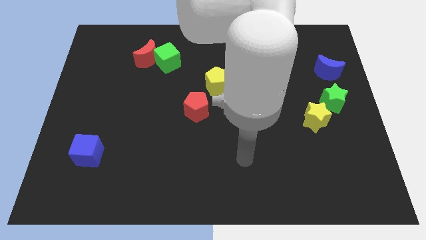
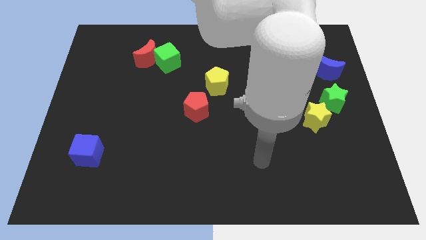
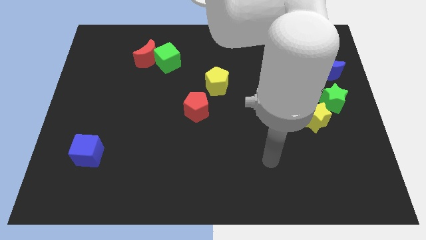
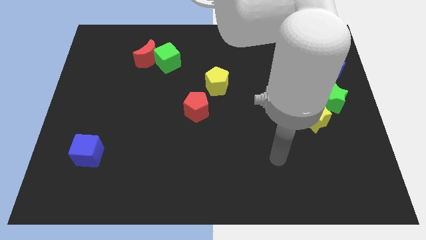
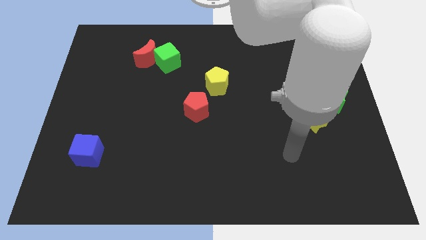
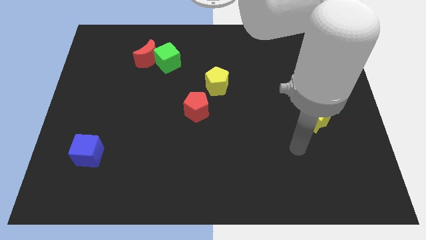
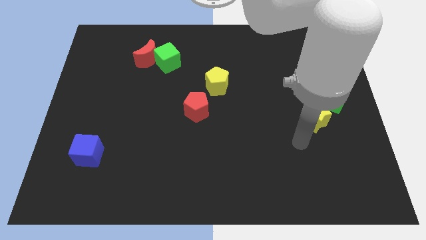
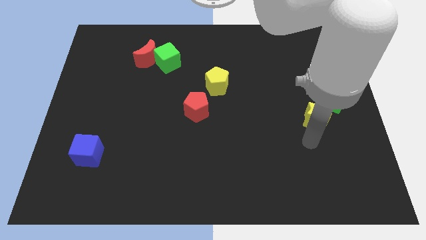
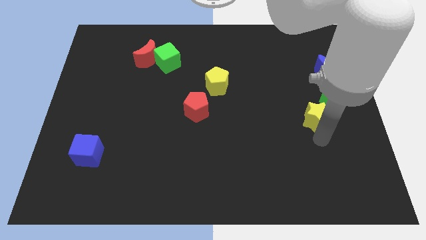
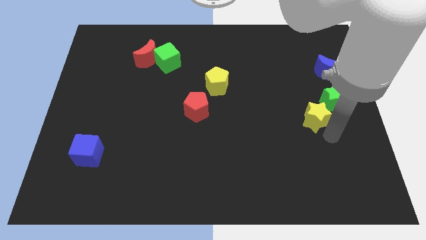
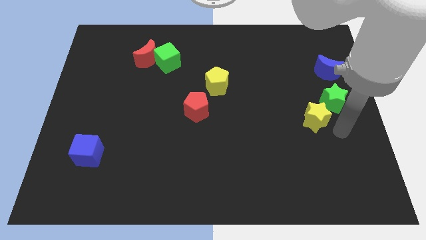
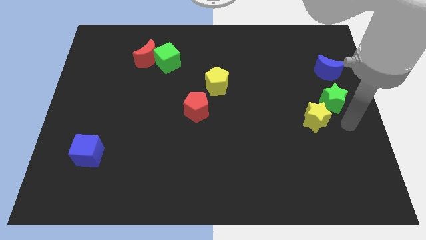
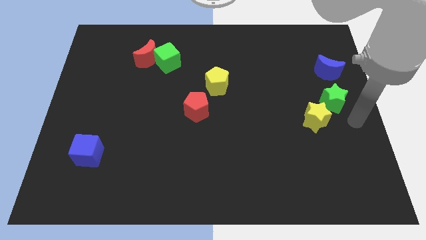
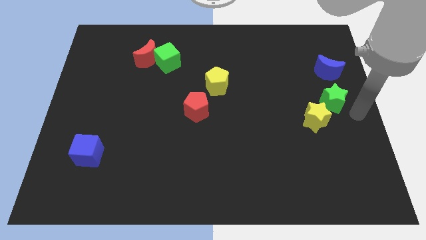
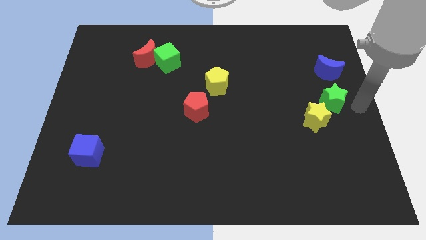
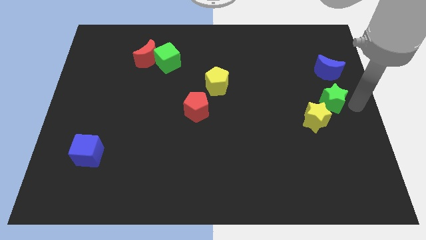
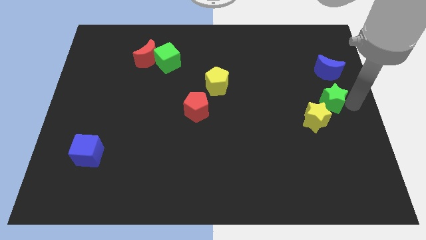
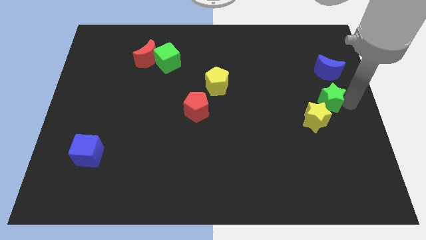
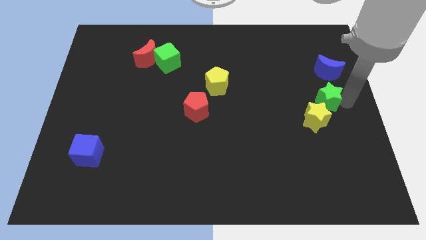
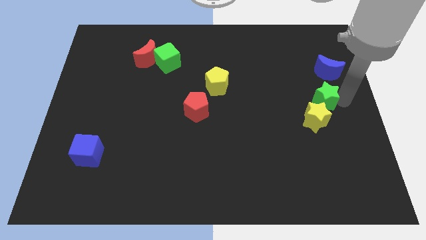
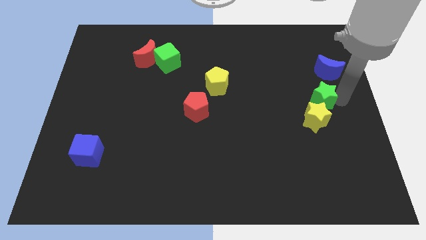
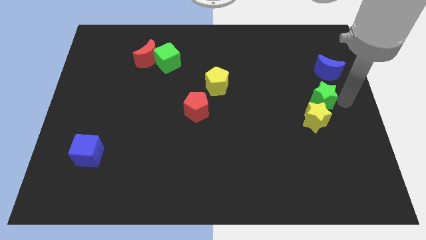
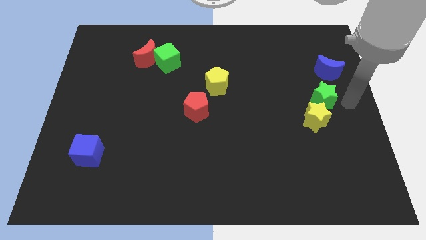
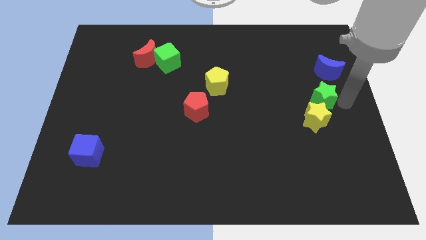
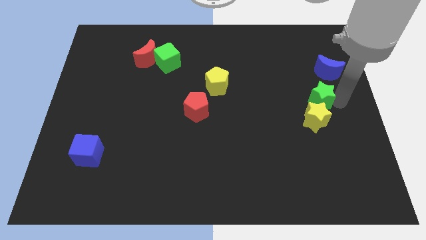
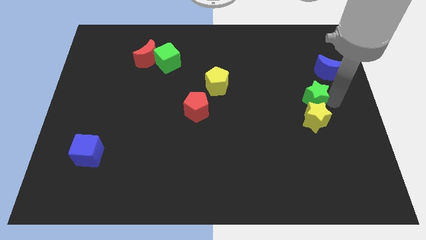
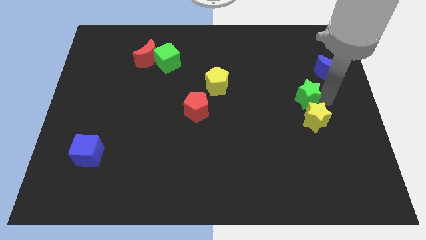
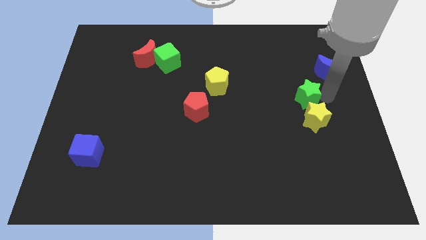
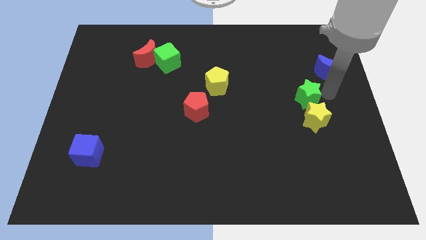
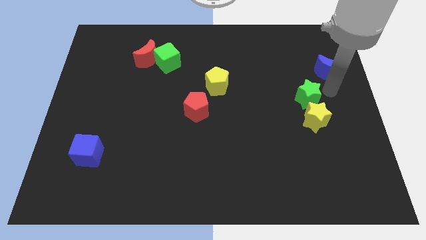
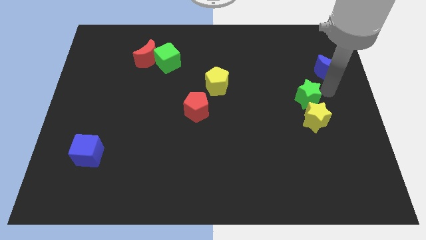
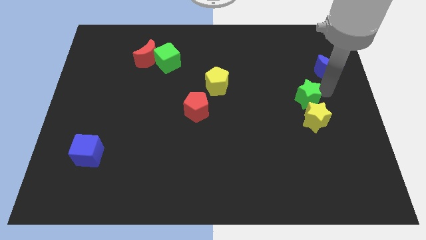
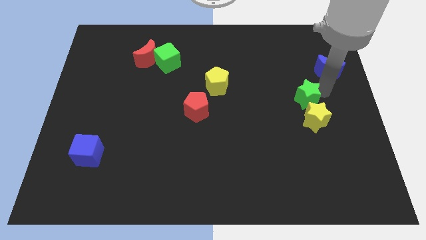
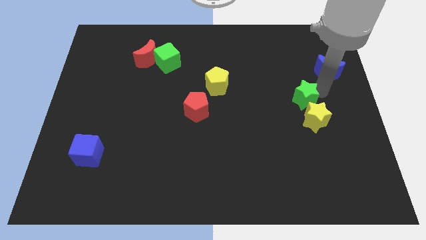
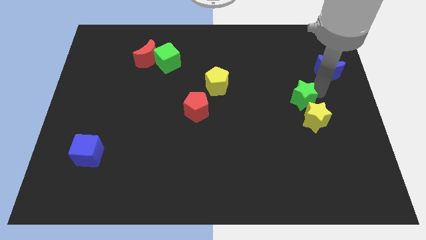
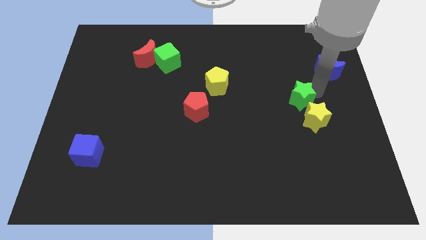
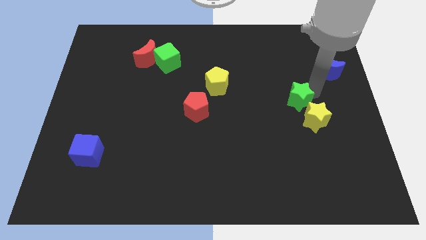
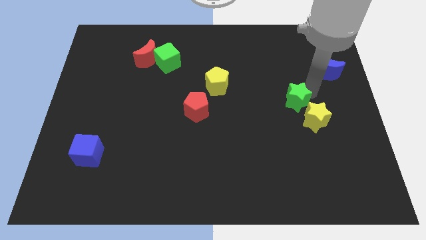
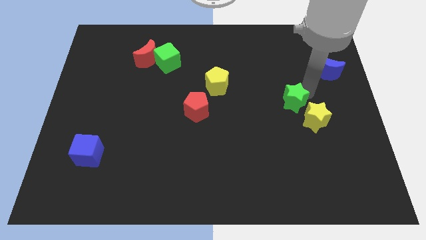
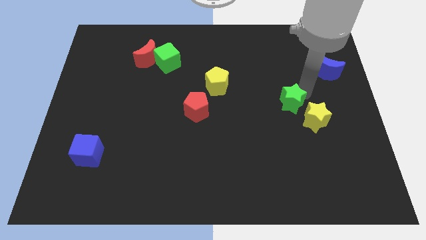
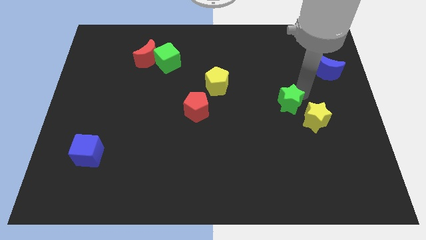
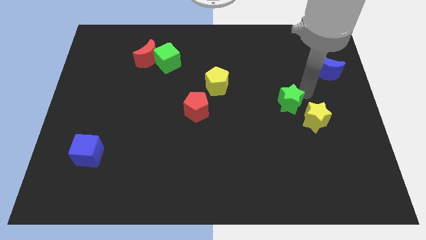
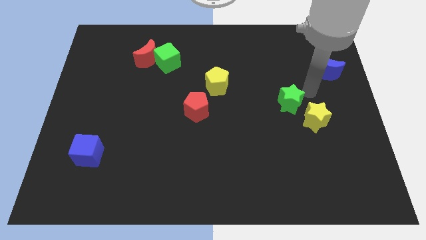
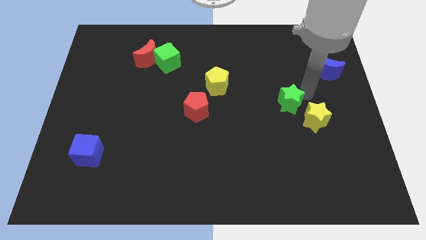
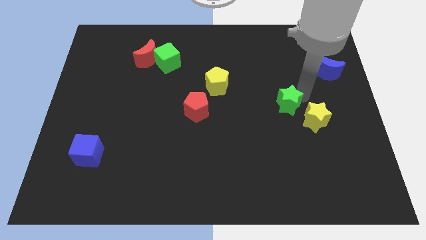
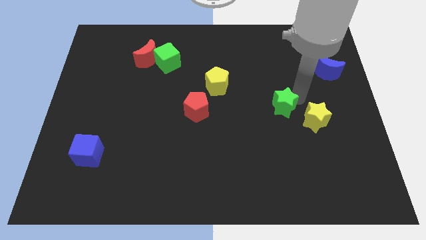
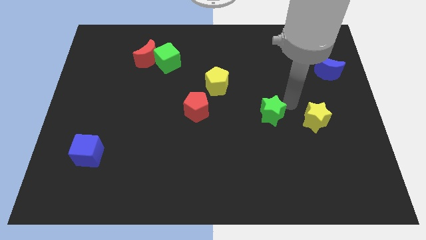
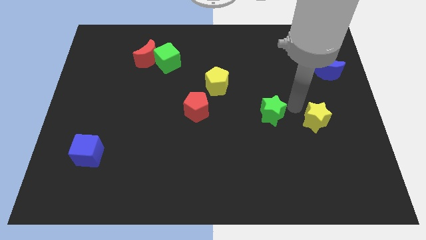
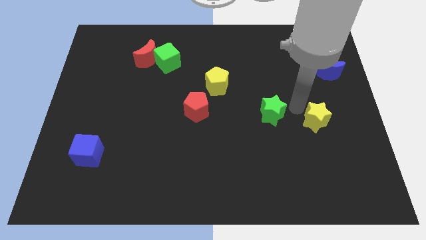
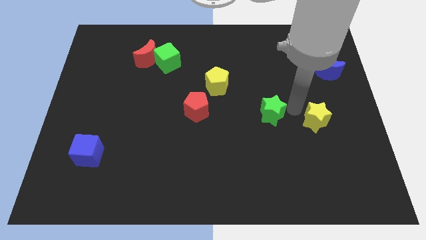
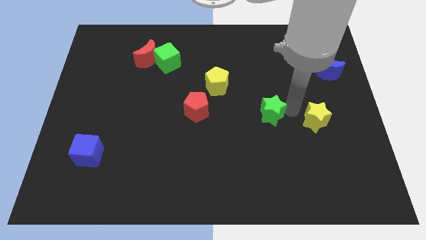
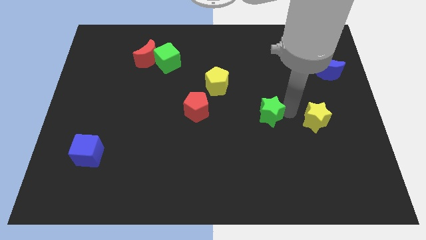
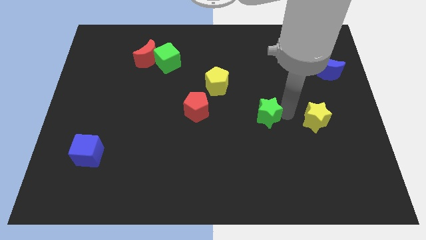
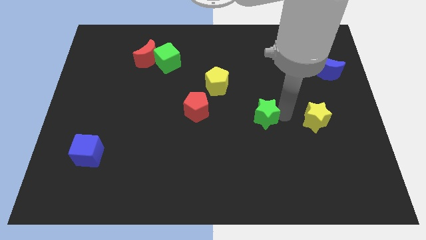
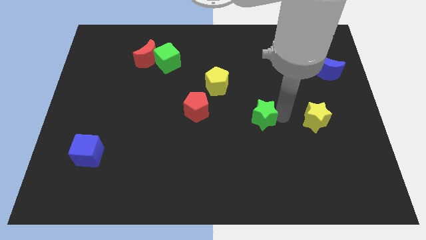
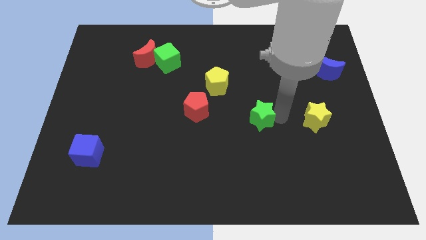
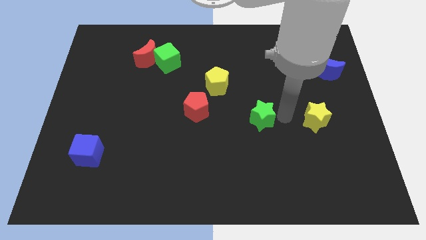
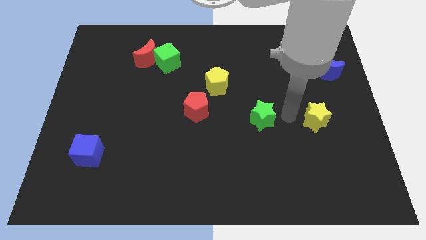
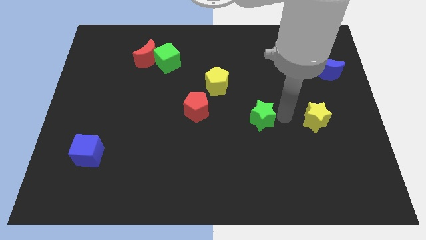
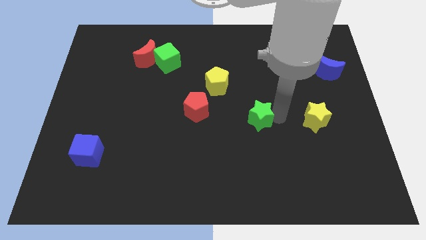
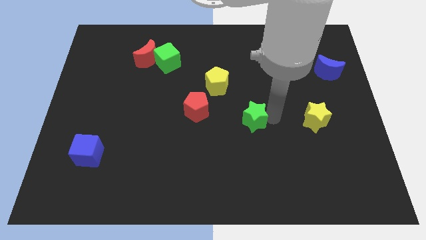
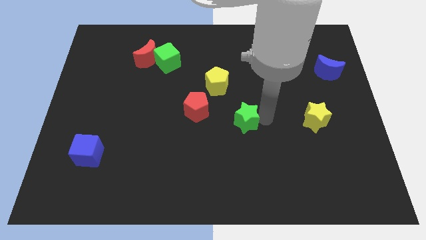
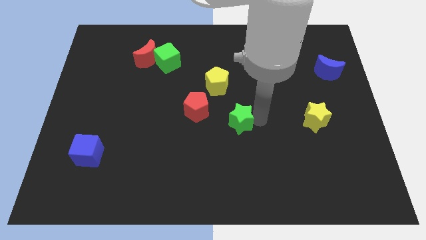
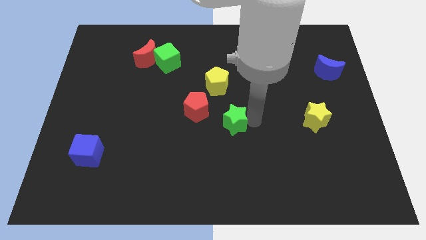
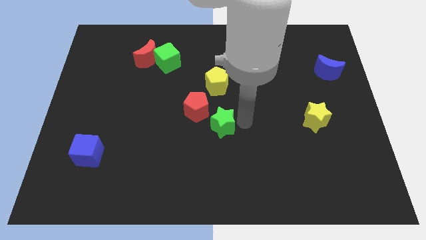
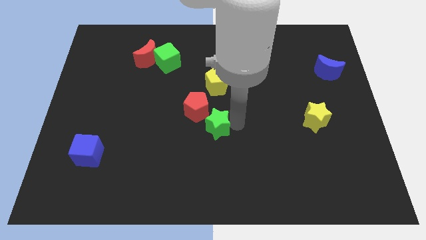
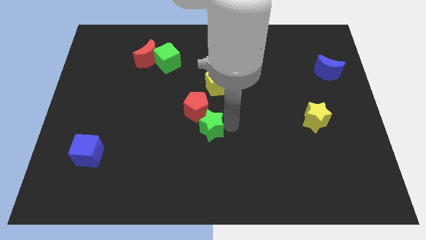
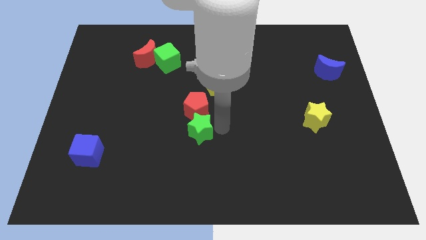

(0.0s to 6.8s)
slide the green star diagonally down and to the left of the red pentagon

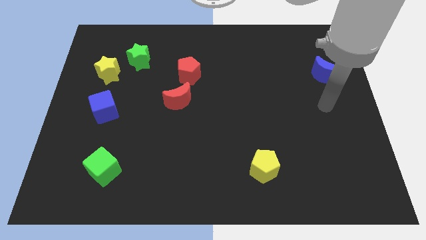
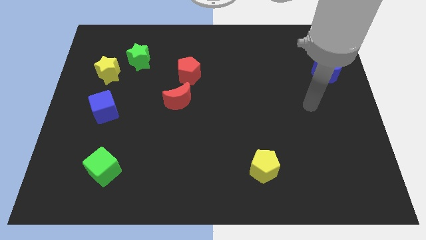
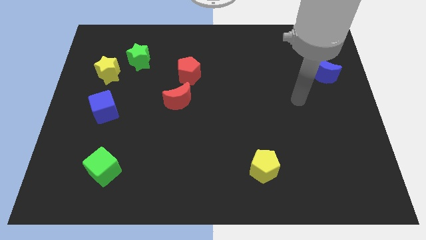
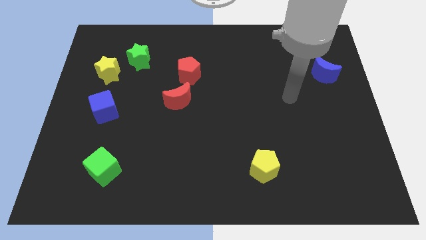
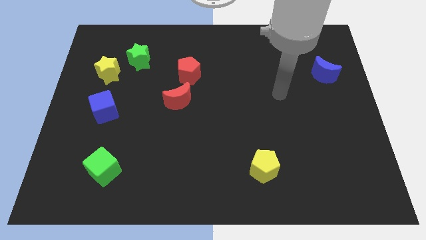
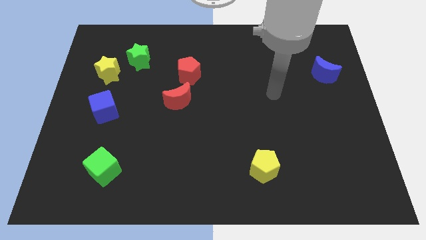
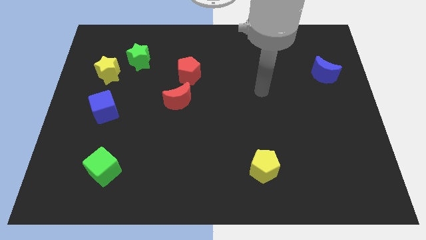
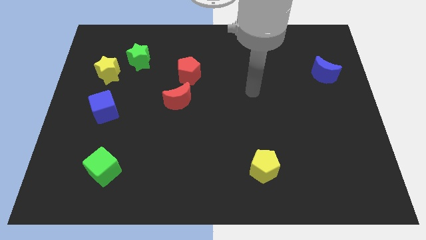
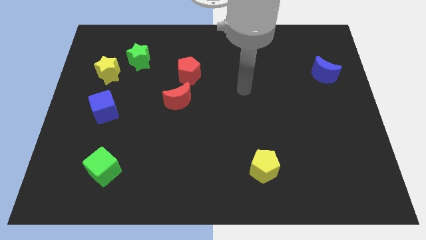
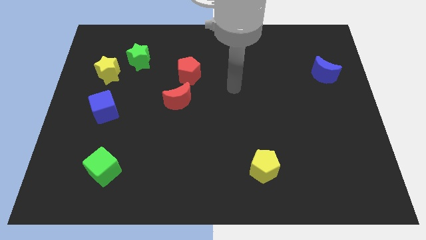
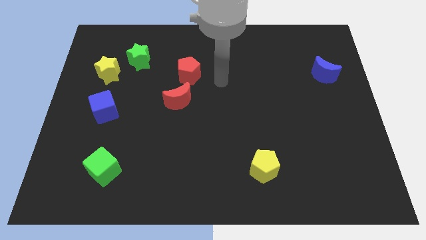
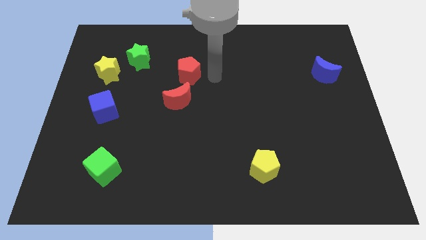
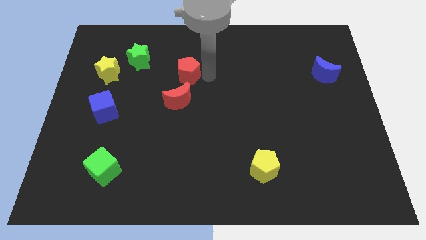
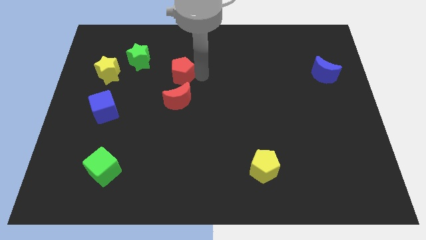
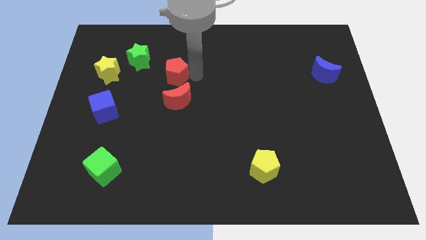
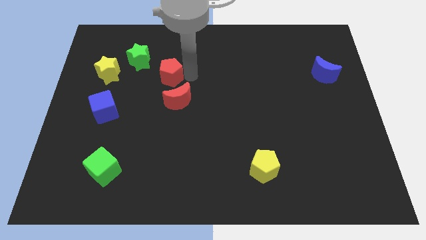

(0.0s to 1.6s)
move the red pentagon just right of the yellow star

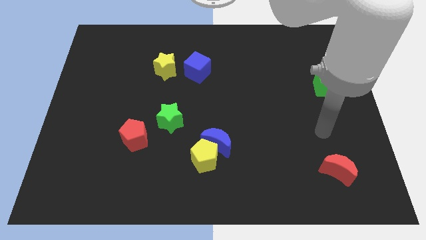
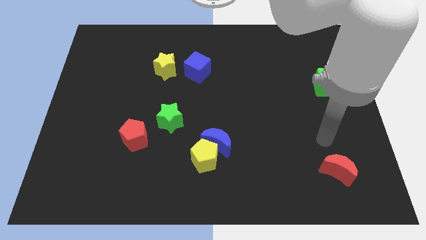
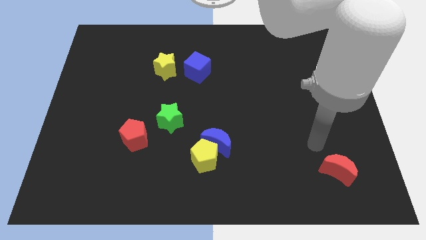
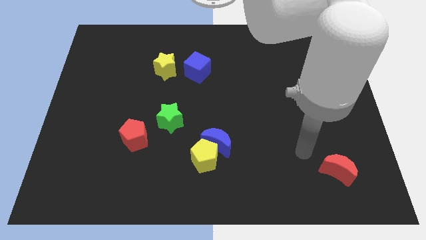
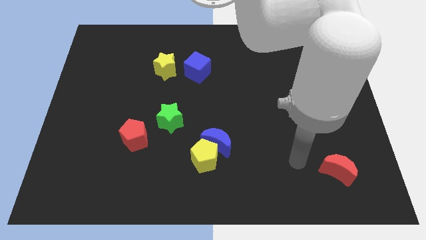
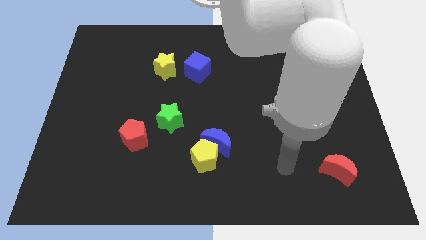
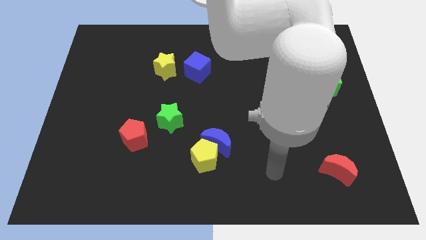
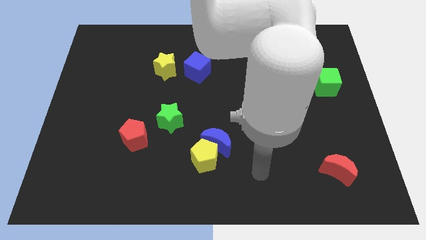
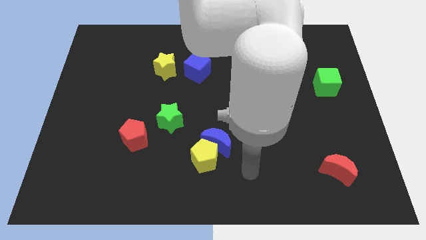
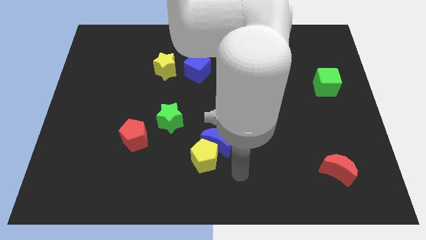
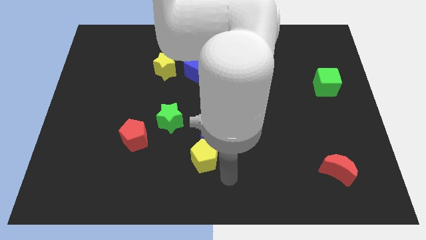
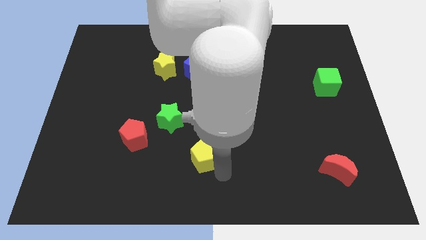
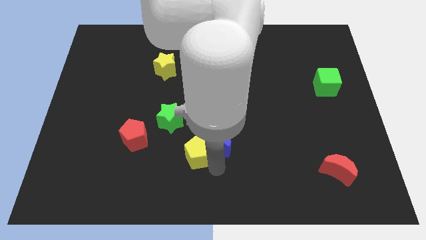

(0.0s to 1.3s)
push the yellow pentagon right of the red pentagon
